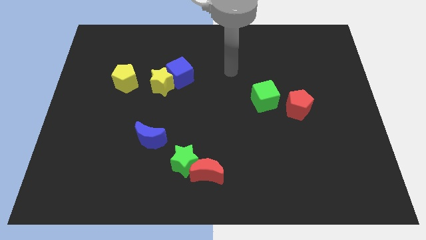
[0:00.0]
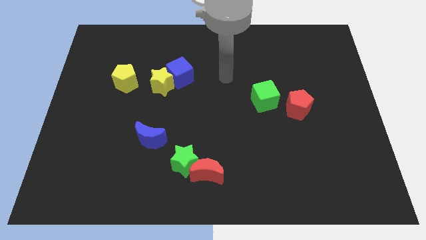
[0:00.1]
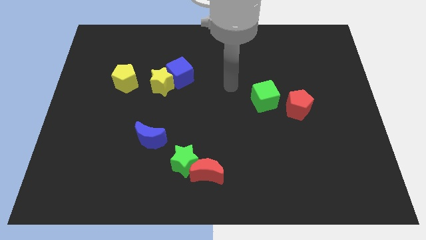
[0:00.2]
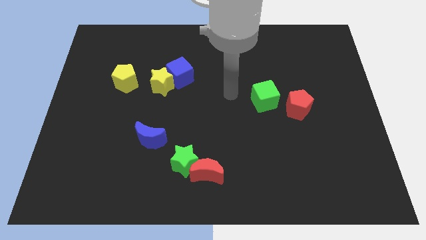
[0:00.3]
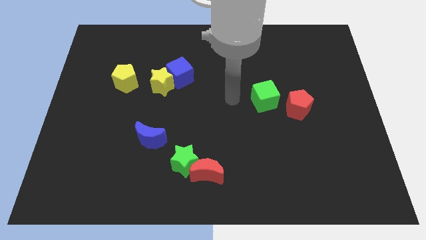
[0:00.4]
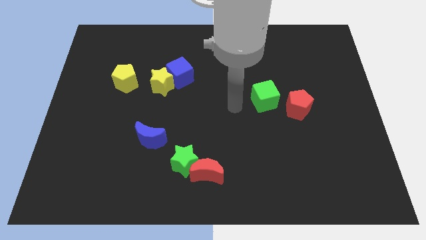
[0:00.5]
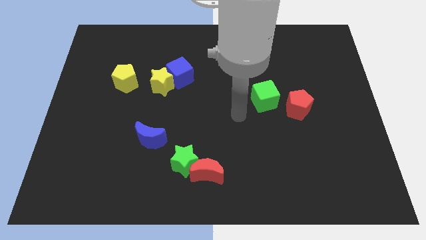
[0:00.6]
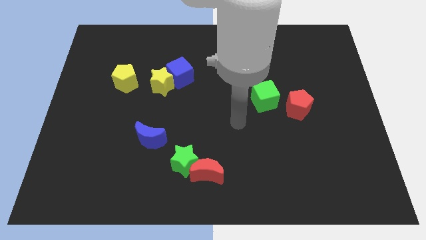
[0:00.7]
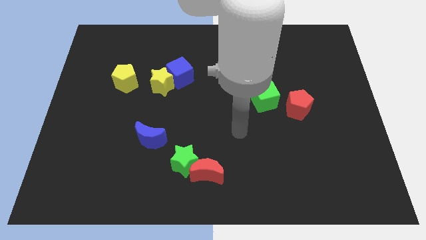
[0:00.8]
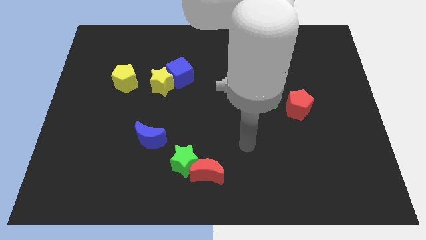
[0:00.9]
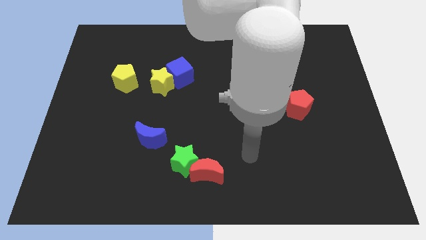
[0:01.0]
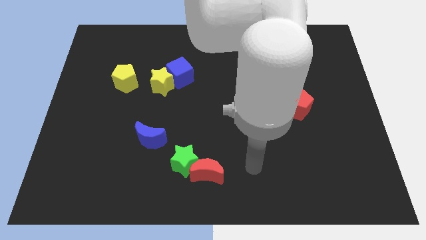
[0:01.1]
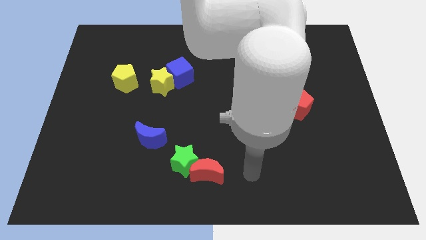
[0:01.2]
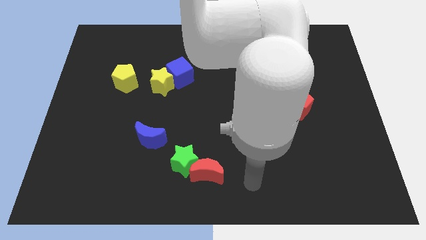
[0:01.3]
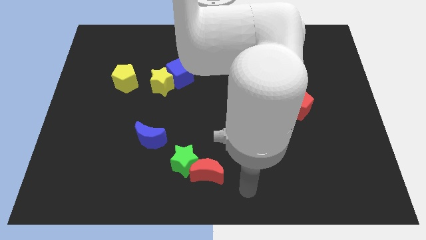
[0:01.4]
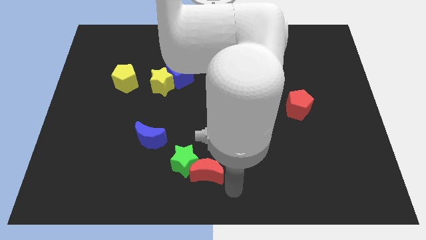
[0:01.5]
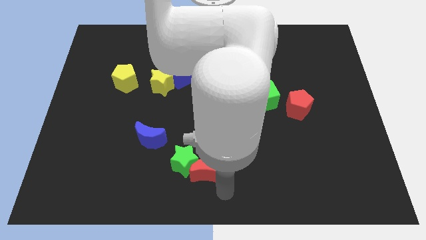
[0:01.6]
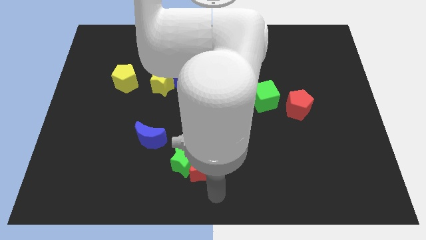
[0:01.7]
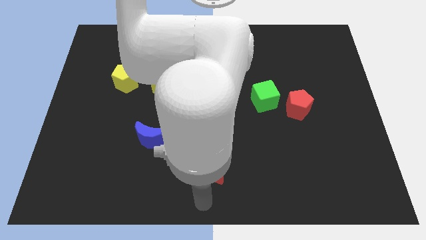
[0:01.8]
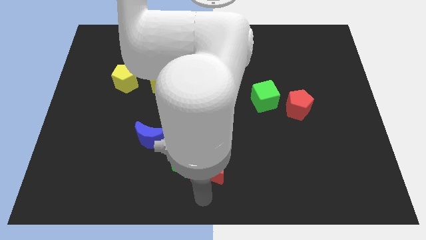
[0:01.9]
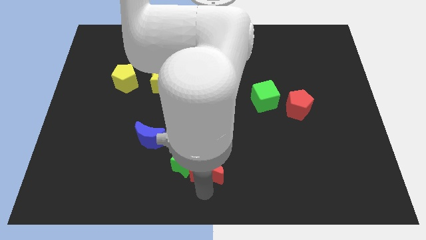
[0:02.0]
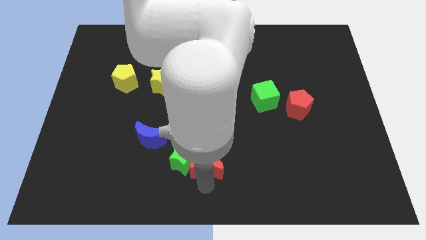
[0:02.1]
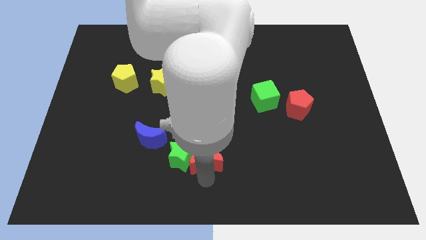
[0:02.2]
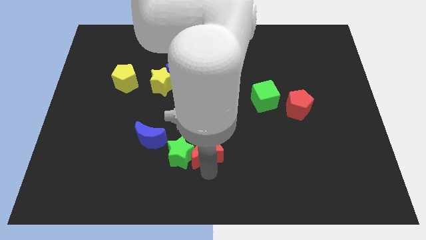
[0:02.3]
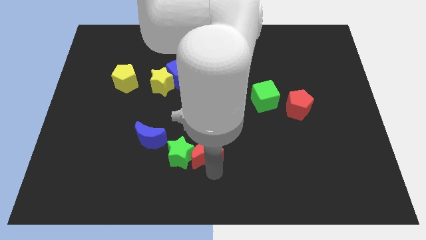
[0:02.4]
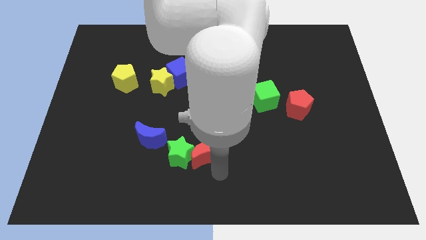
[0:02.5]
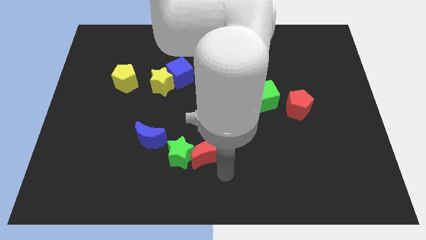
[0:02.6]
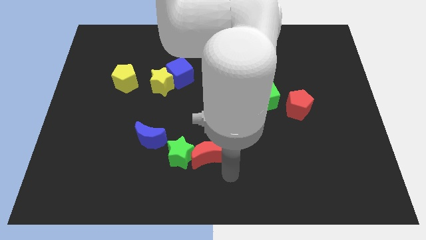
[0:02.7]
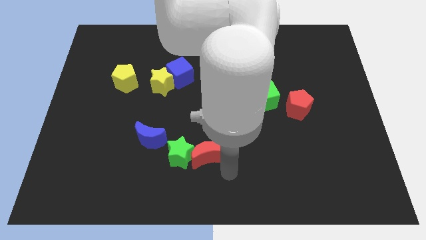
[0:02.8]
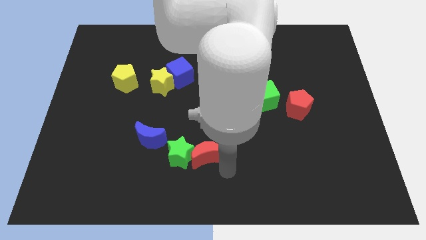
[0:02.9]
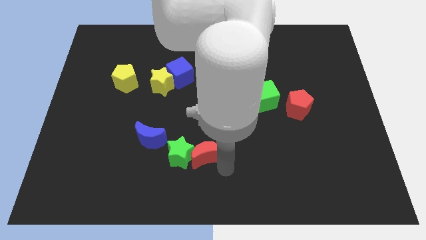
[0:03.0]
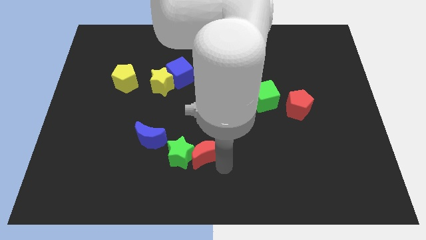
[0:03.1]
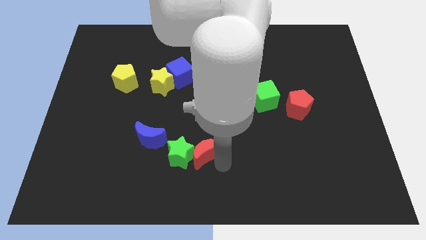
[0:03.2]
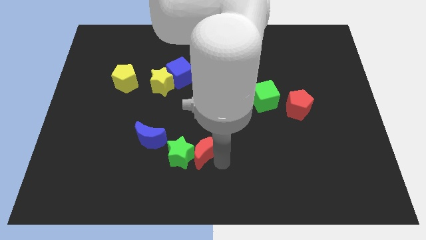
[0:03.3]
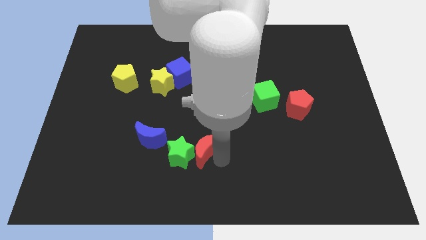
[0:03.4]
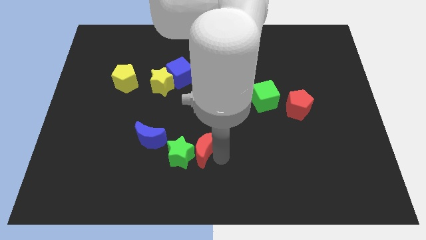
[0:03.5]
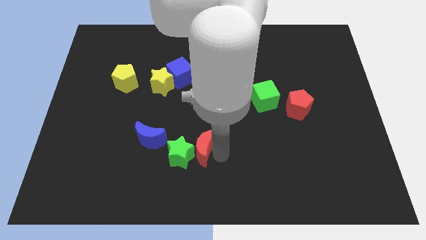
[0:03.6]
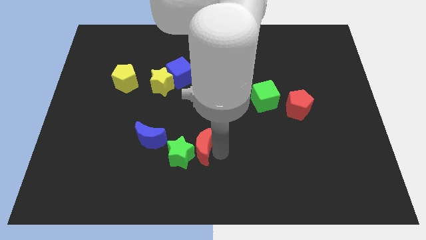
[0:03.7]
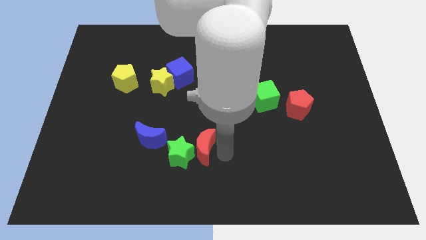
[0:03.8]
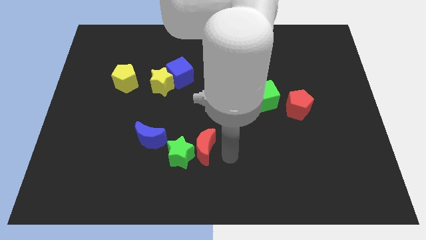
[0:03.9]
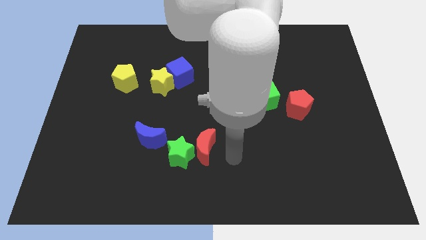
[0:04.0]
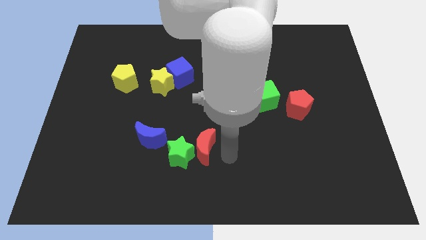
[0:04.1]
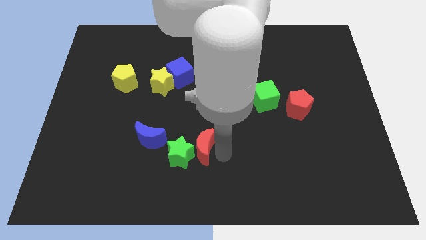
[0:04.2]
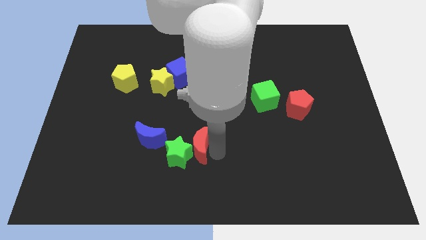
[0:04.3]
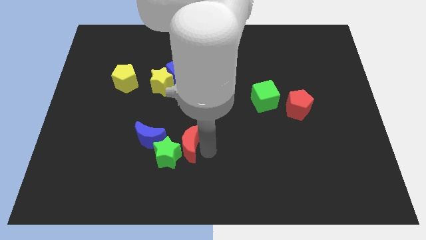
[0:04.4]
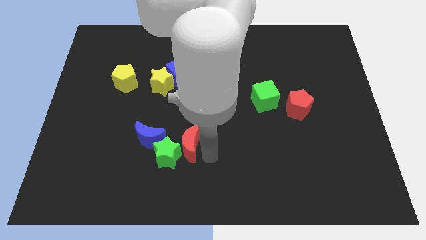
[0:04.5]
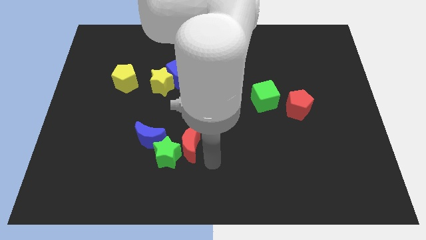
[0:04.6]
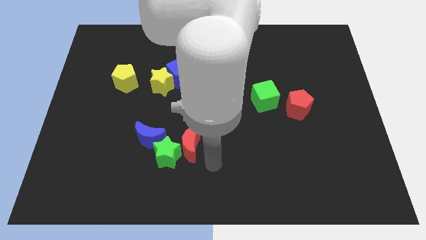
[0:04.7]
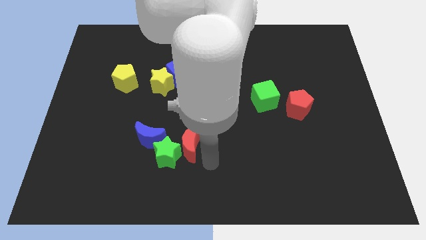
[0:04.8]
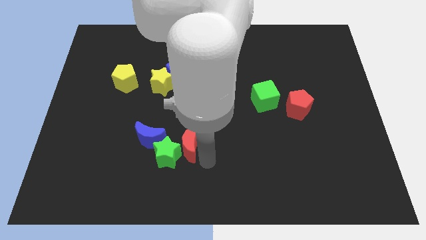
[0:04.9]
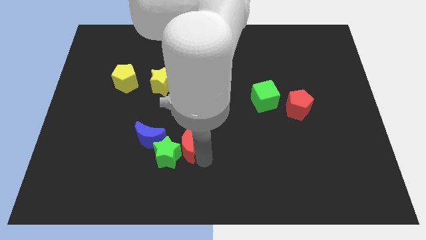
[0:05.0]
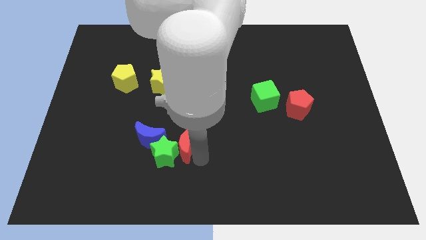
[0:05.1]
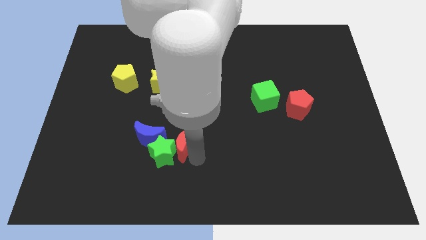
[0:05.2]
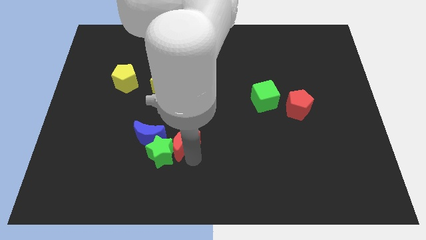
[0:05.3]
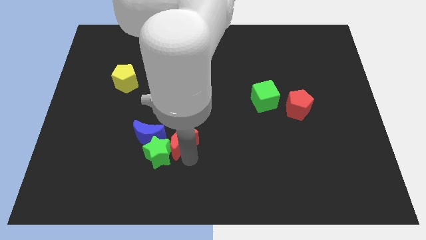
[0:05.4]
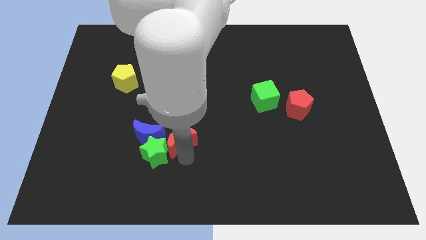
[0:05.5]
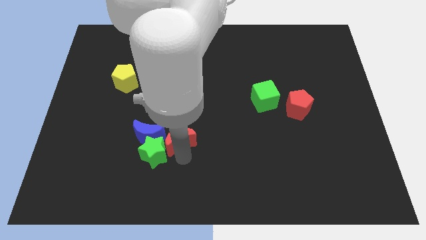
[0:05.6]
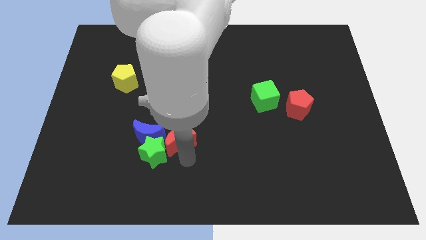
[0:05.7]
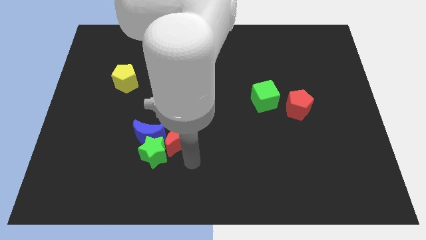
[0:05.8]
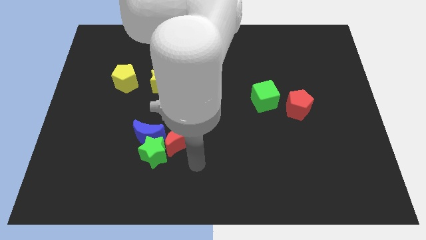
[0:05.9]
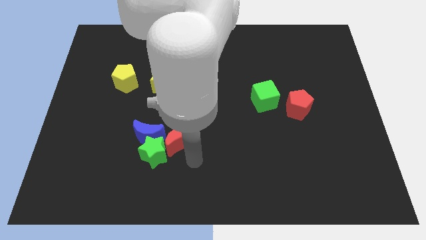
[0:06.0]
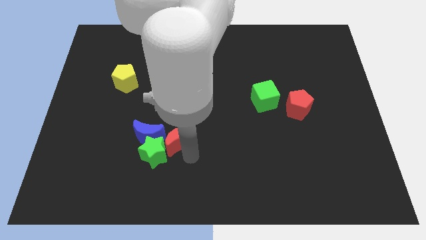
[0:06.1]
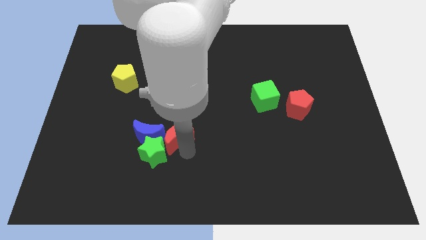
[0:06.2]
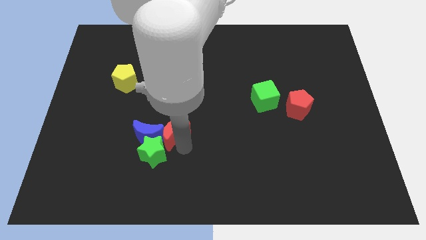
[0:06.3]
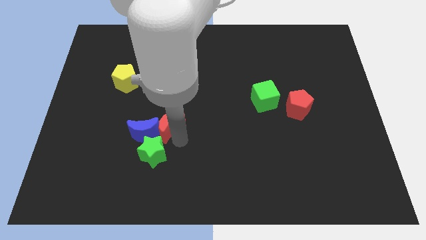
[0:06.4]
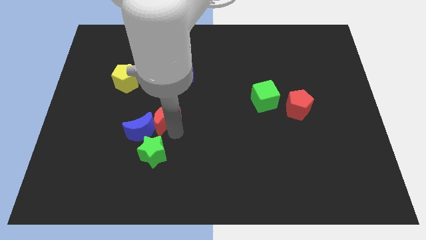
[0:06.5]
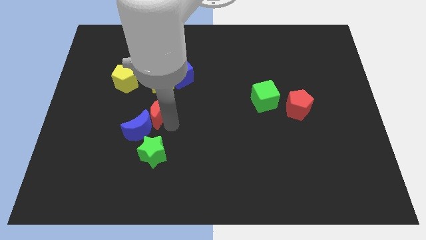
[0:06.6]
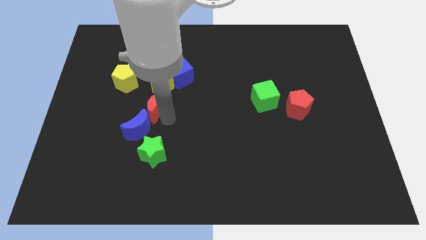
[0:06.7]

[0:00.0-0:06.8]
slide the red moon to the bottom left of the yellow star
